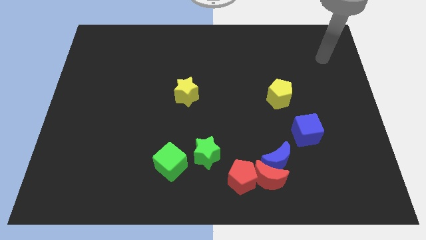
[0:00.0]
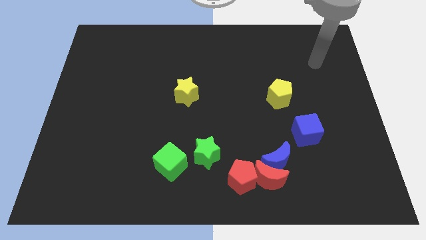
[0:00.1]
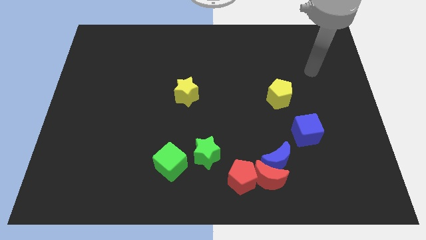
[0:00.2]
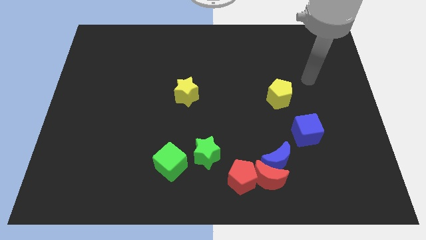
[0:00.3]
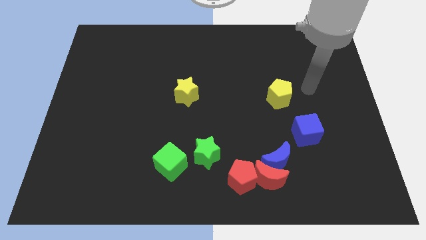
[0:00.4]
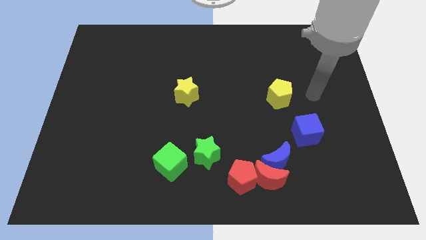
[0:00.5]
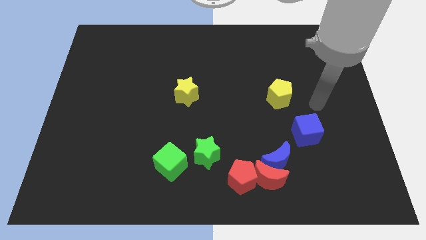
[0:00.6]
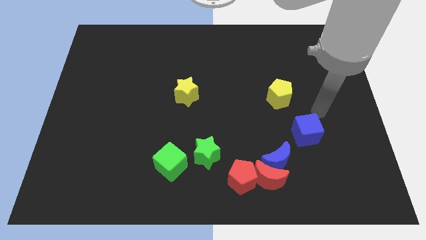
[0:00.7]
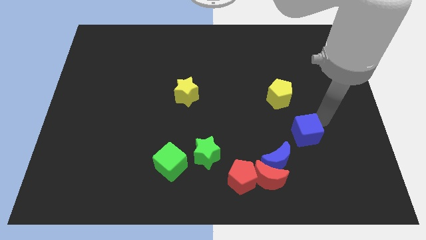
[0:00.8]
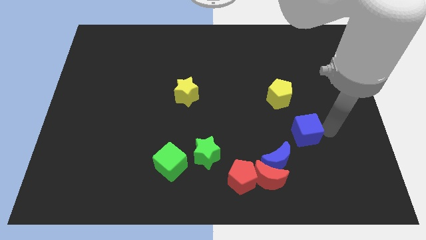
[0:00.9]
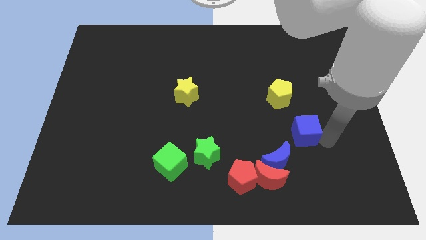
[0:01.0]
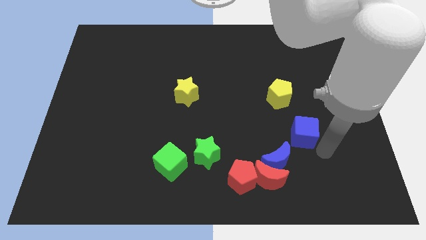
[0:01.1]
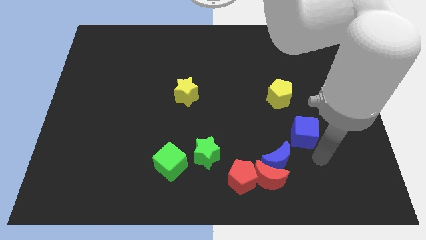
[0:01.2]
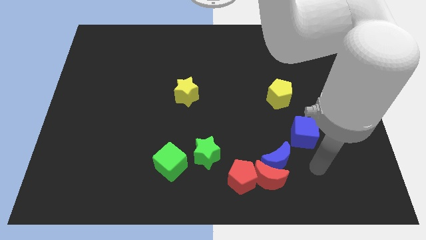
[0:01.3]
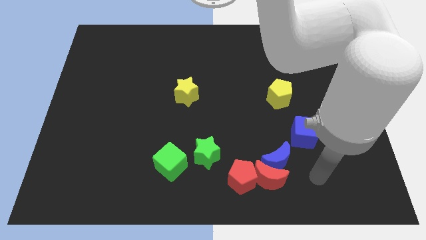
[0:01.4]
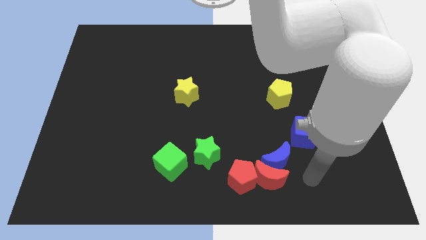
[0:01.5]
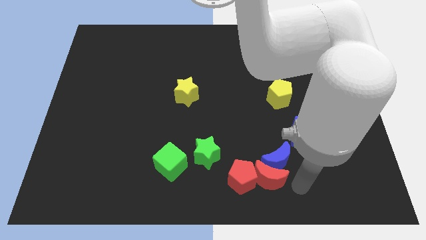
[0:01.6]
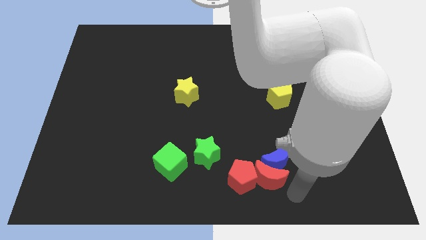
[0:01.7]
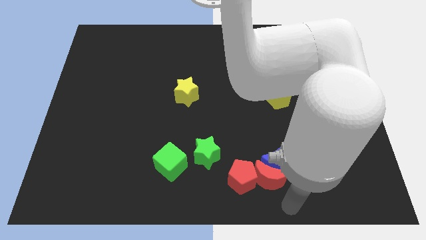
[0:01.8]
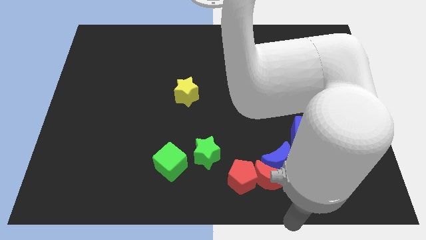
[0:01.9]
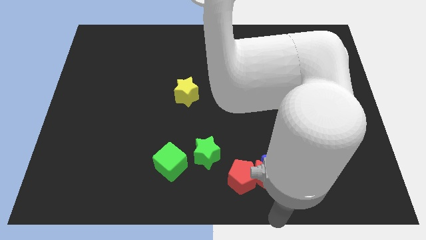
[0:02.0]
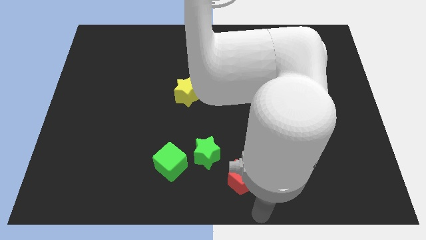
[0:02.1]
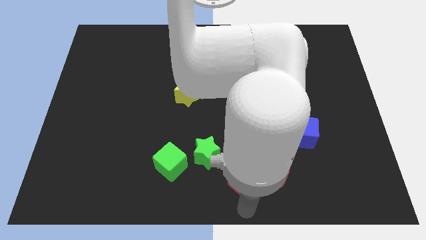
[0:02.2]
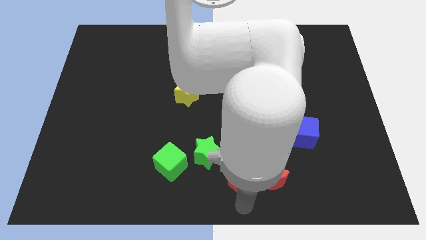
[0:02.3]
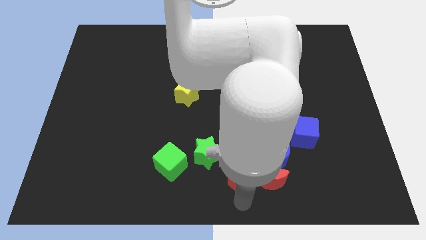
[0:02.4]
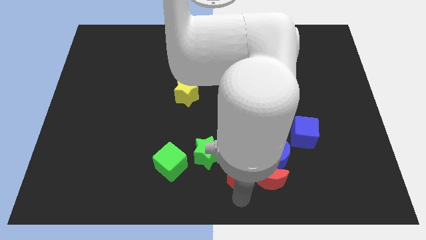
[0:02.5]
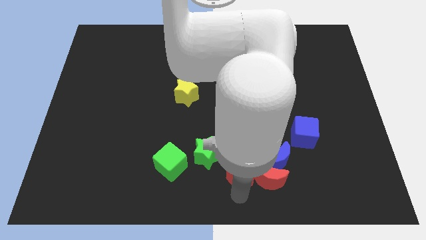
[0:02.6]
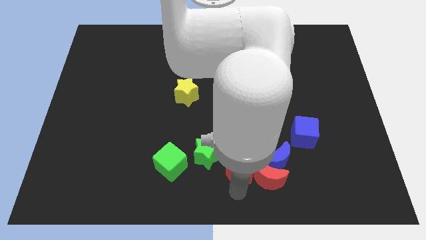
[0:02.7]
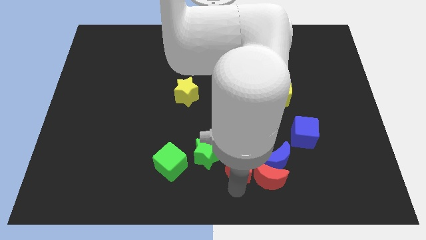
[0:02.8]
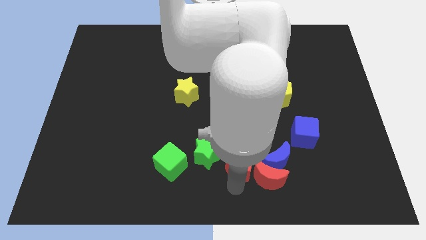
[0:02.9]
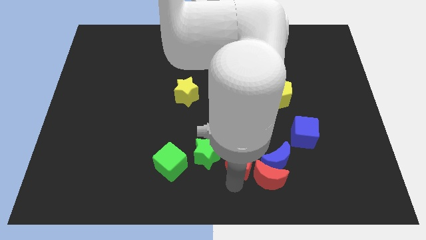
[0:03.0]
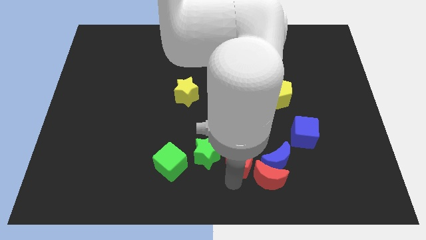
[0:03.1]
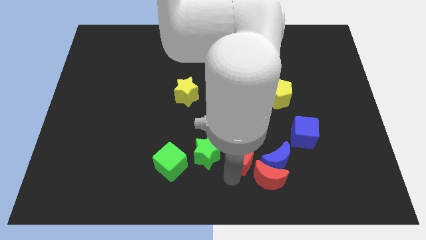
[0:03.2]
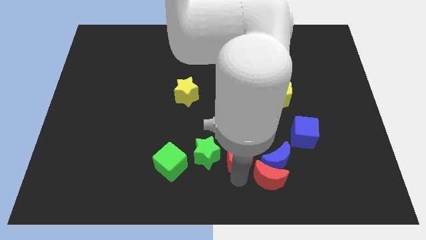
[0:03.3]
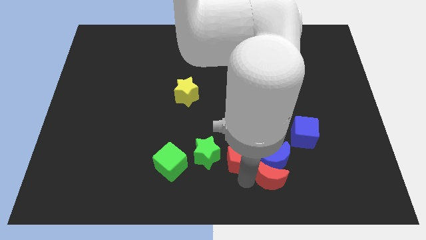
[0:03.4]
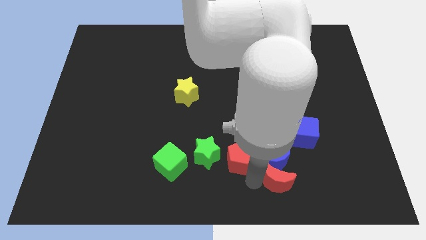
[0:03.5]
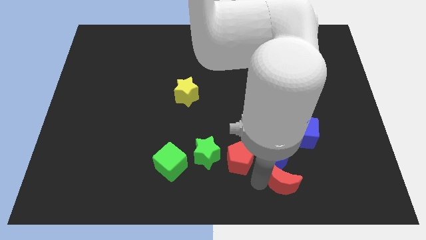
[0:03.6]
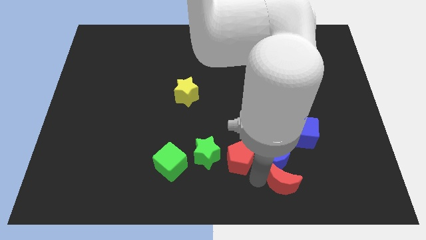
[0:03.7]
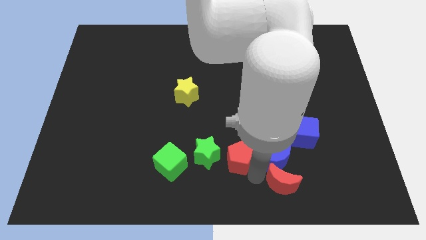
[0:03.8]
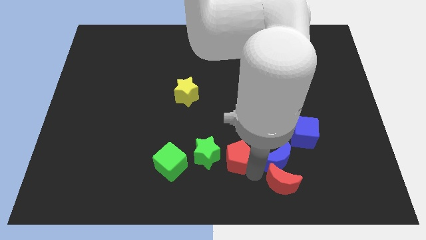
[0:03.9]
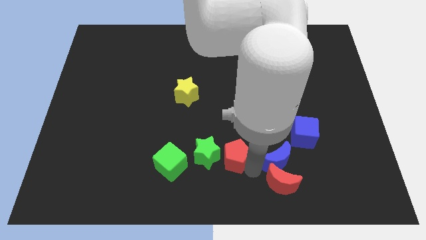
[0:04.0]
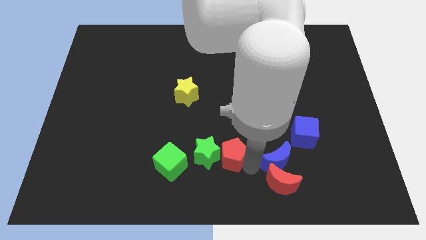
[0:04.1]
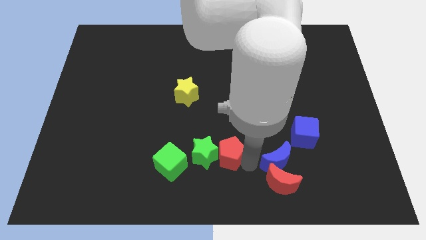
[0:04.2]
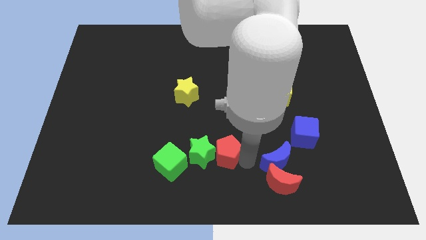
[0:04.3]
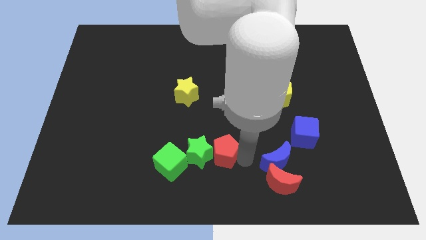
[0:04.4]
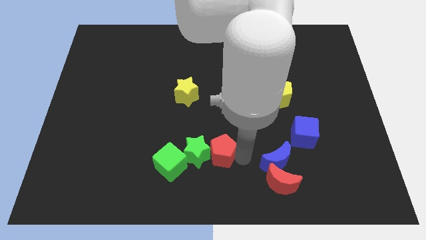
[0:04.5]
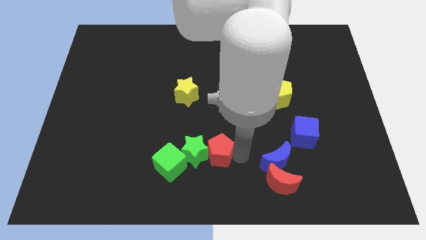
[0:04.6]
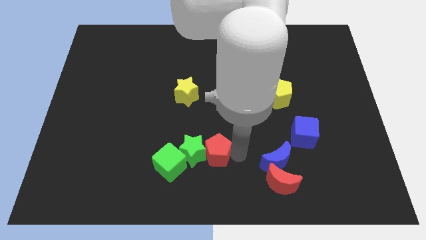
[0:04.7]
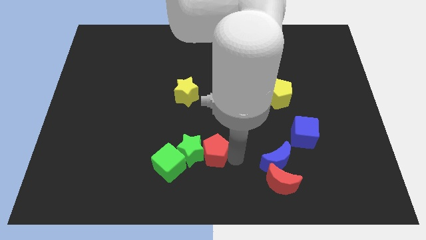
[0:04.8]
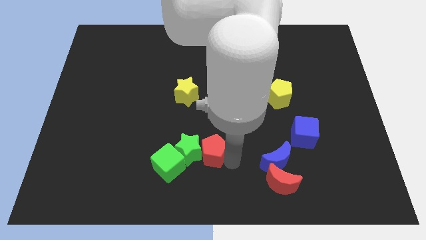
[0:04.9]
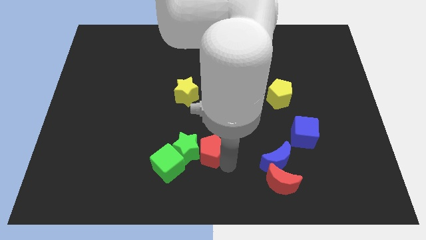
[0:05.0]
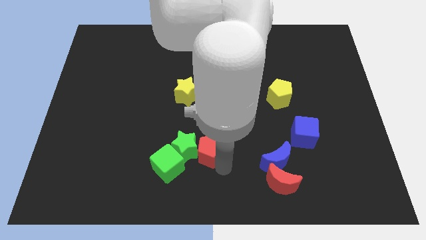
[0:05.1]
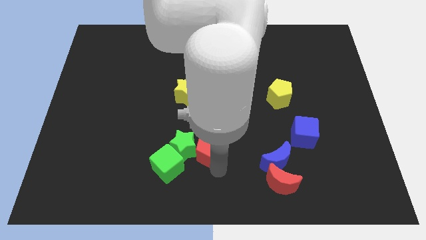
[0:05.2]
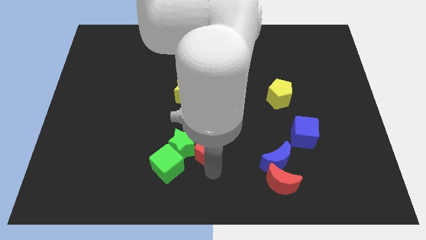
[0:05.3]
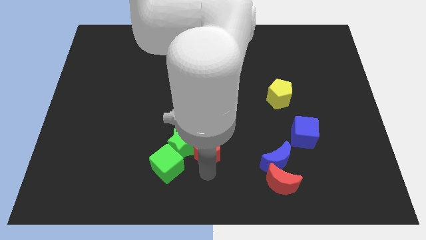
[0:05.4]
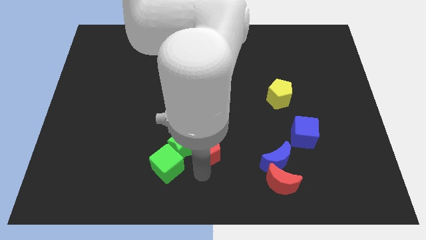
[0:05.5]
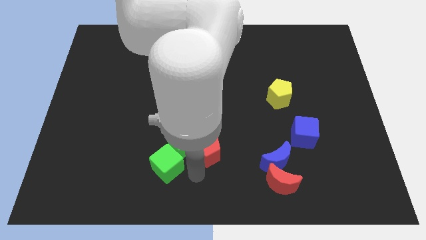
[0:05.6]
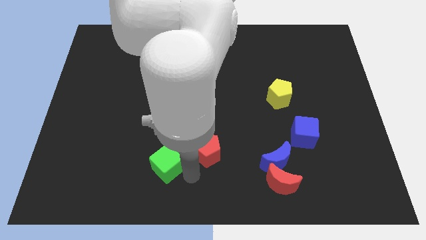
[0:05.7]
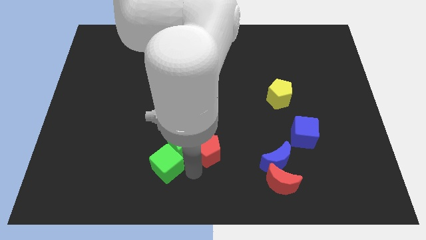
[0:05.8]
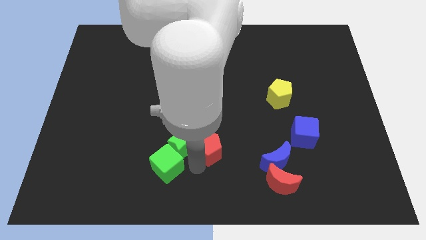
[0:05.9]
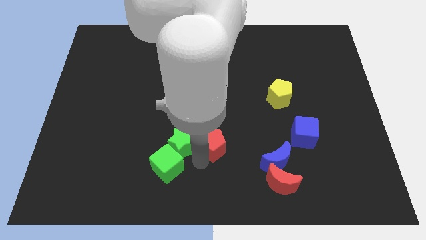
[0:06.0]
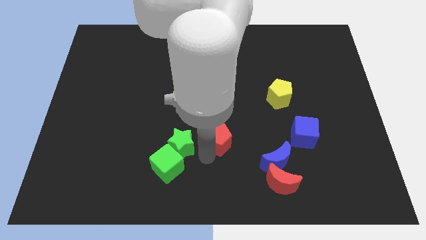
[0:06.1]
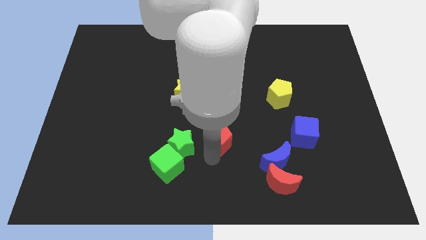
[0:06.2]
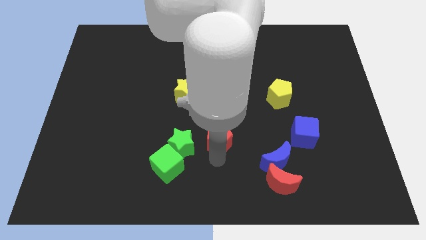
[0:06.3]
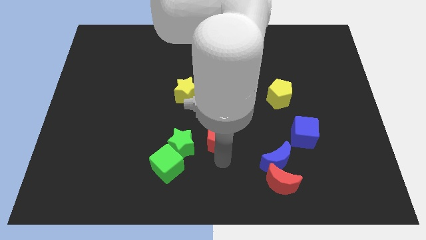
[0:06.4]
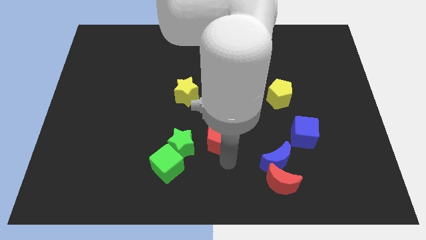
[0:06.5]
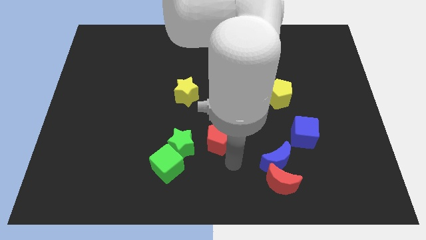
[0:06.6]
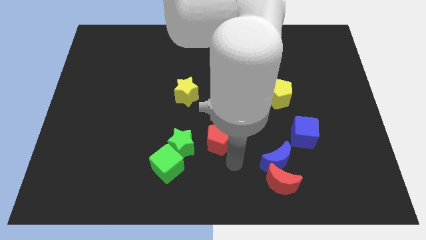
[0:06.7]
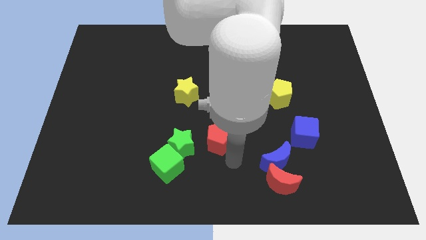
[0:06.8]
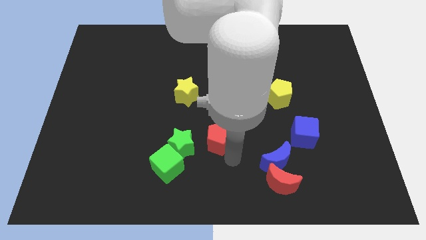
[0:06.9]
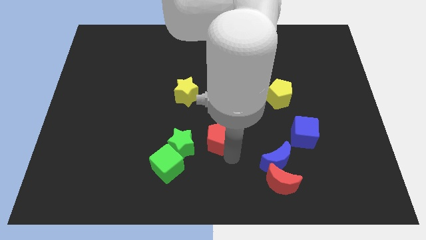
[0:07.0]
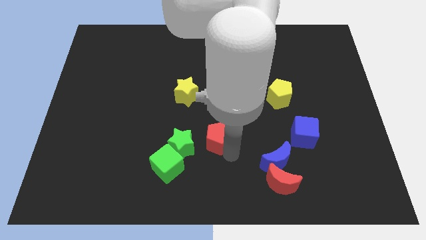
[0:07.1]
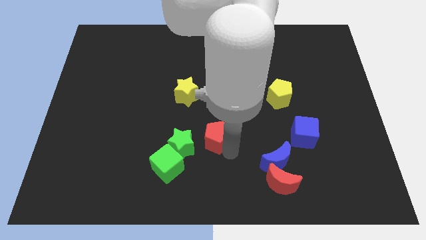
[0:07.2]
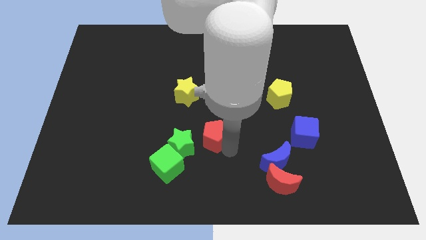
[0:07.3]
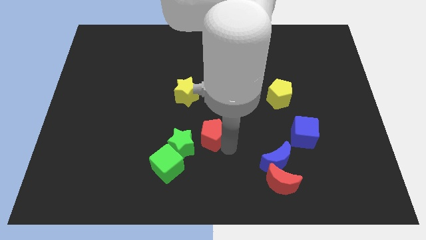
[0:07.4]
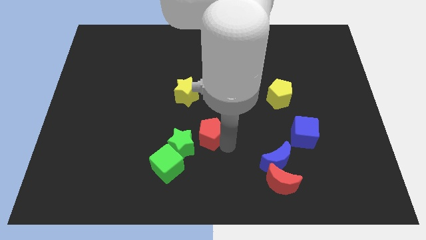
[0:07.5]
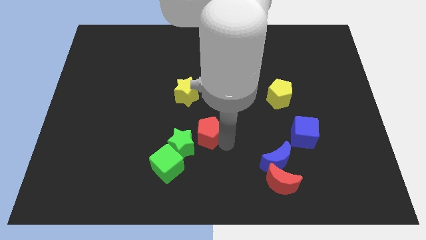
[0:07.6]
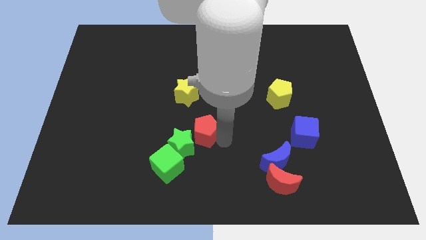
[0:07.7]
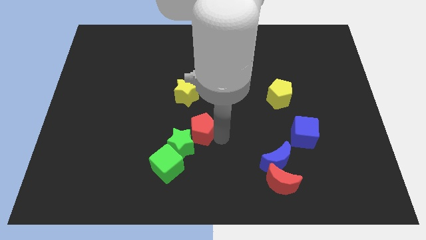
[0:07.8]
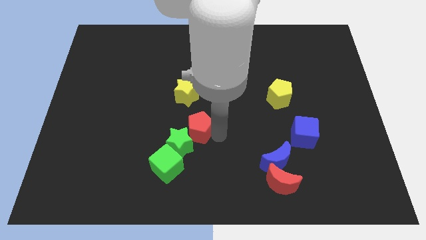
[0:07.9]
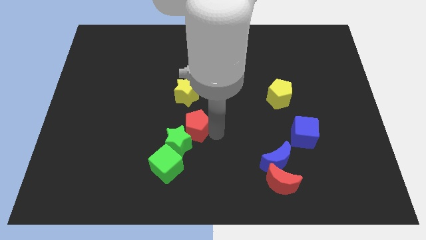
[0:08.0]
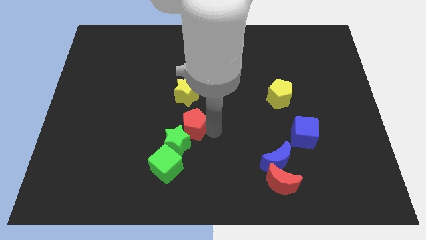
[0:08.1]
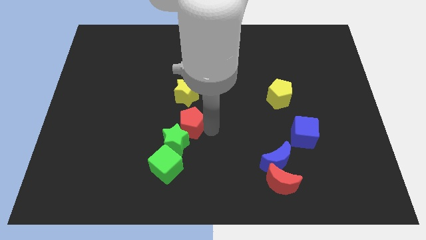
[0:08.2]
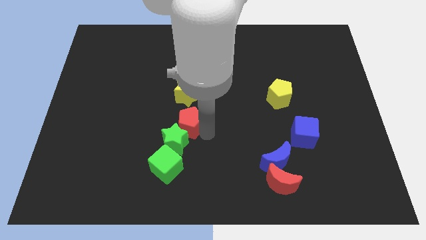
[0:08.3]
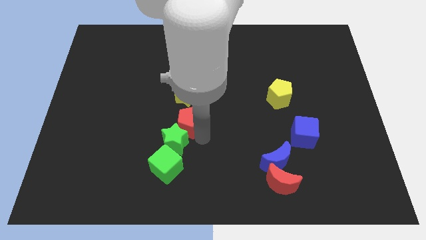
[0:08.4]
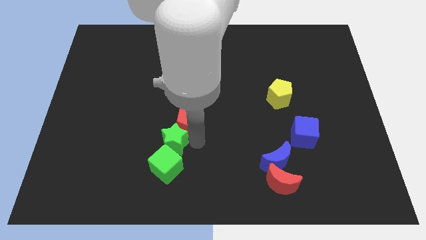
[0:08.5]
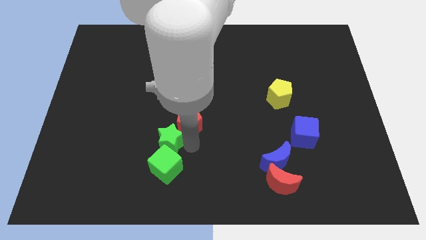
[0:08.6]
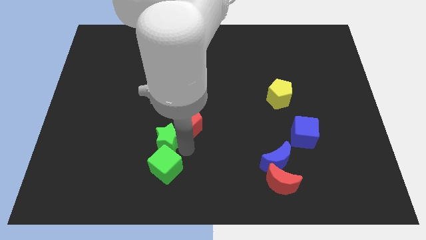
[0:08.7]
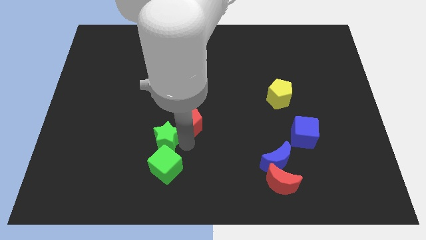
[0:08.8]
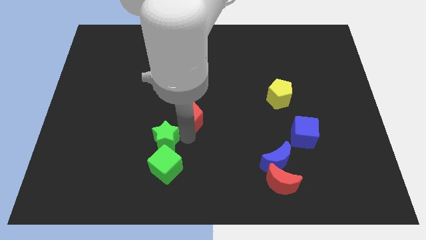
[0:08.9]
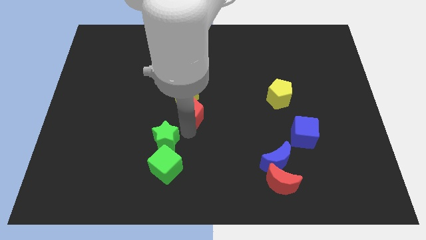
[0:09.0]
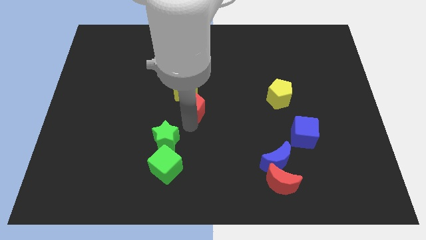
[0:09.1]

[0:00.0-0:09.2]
push the red pentagon to the yellow star
